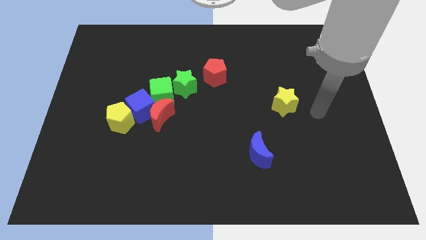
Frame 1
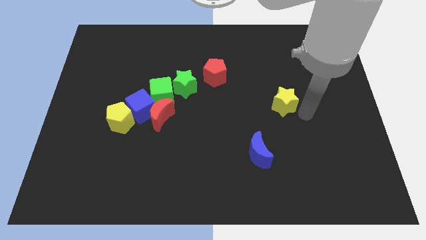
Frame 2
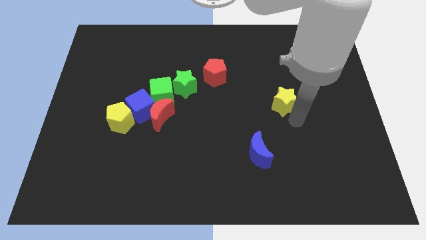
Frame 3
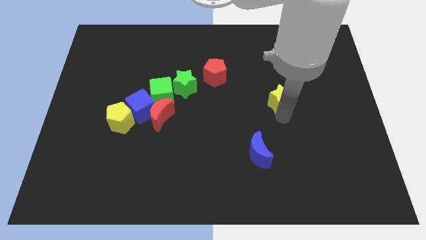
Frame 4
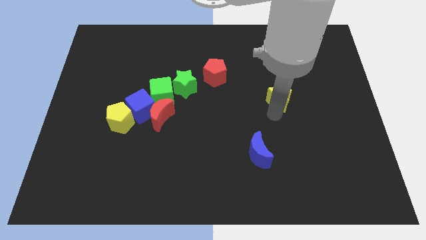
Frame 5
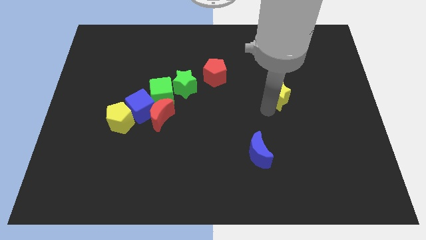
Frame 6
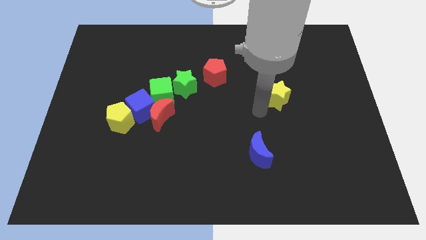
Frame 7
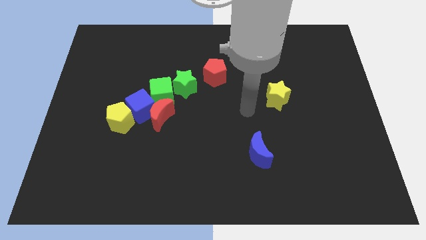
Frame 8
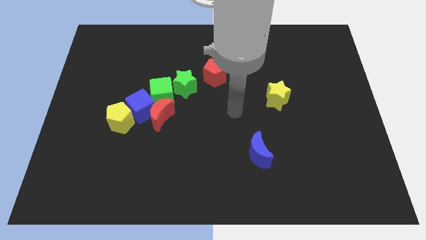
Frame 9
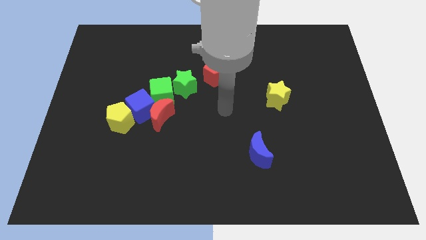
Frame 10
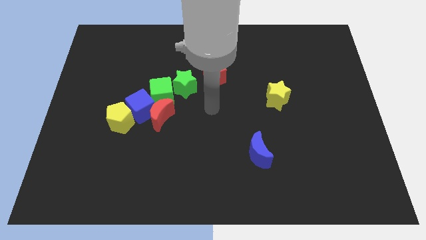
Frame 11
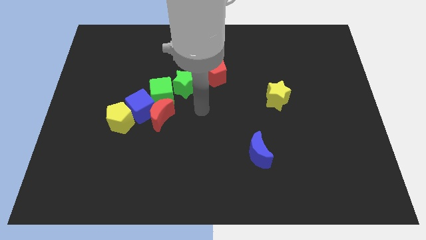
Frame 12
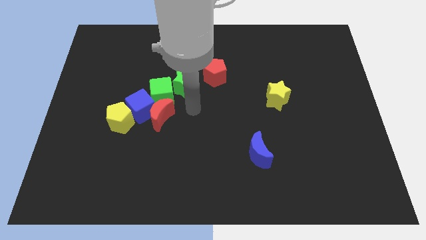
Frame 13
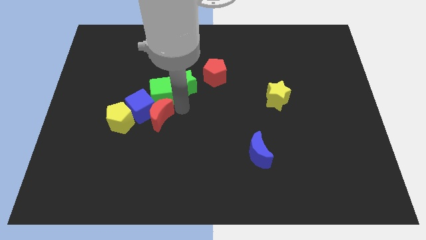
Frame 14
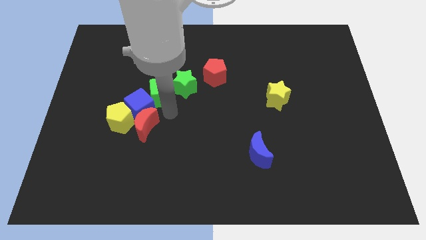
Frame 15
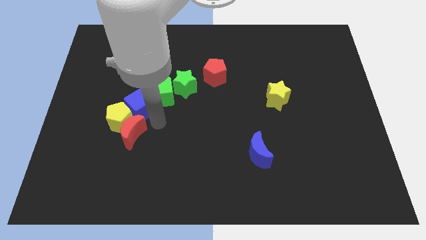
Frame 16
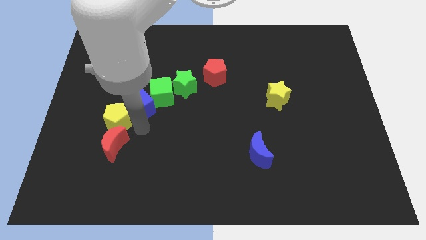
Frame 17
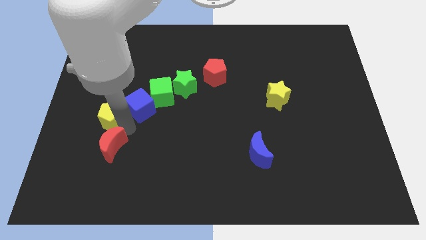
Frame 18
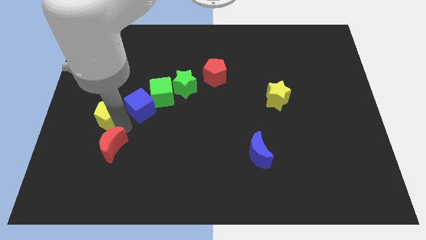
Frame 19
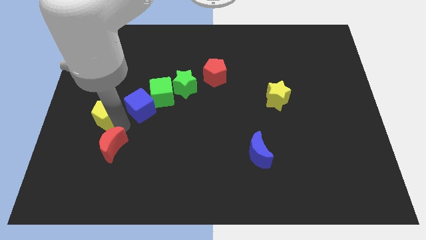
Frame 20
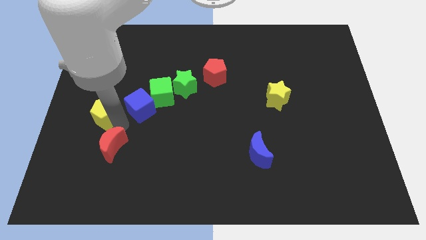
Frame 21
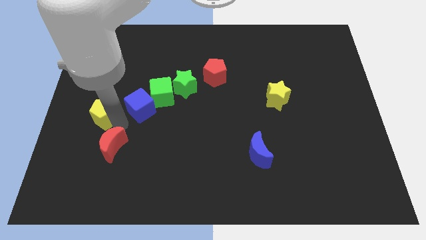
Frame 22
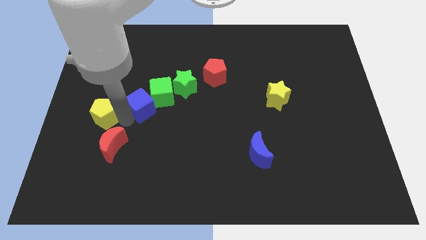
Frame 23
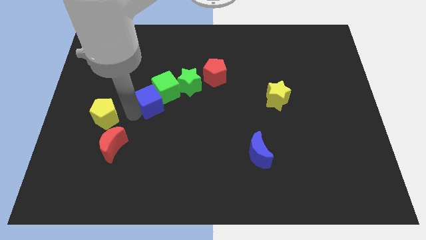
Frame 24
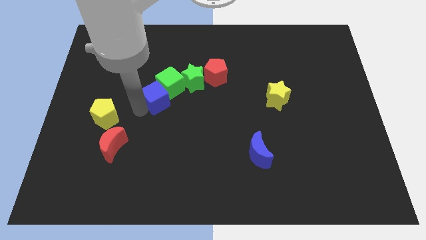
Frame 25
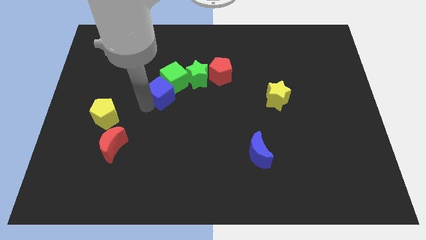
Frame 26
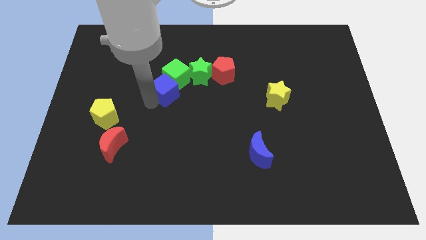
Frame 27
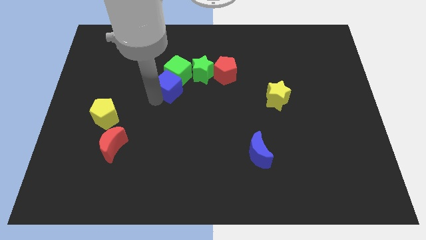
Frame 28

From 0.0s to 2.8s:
move the blue cube away from the red moon, yellow pentagon, and green cube

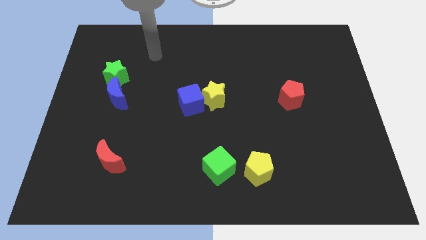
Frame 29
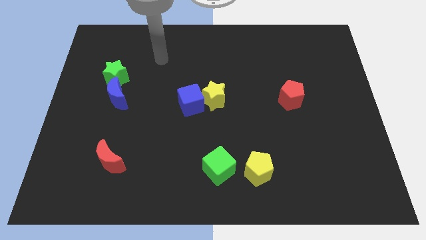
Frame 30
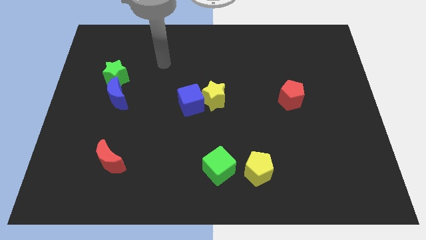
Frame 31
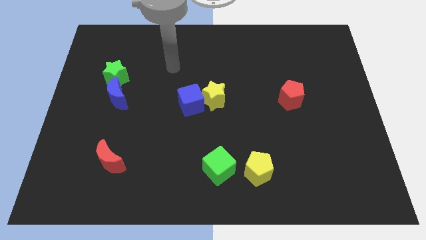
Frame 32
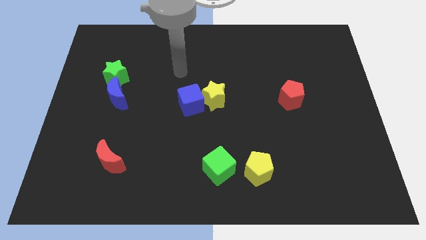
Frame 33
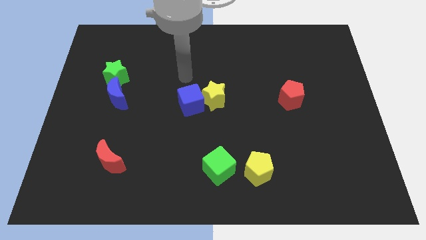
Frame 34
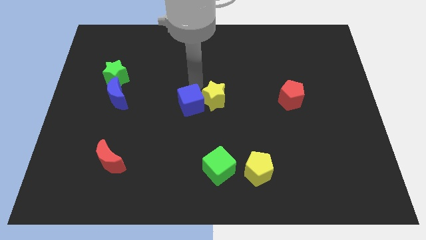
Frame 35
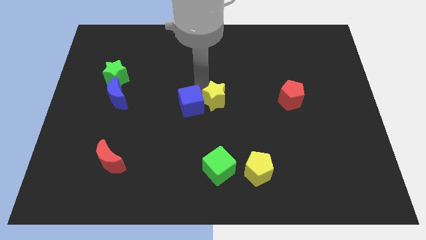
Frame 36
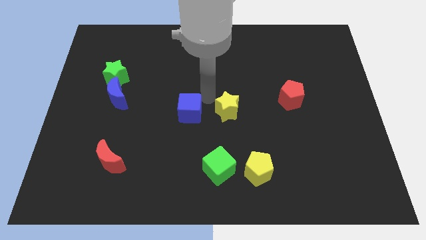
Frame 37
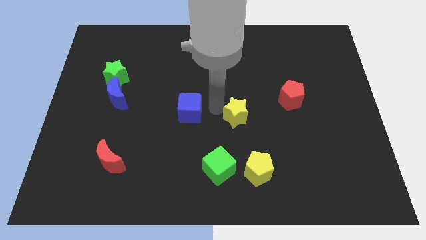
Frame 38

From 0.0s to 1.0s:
separate the blue cube from the yellow star

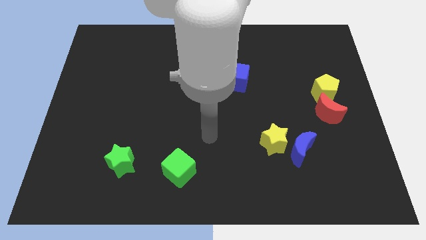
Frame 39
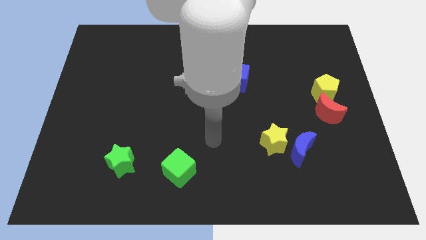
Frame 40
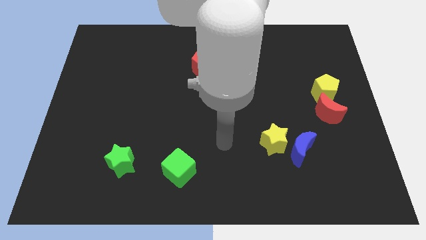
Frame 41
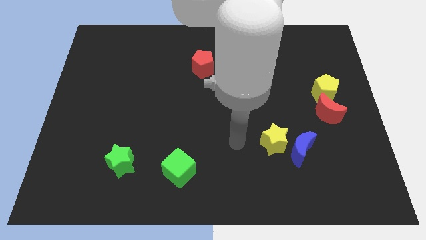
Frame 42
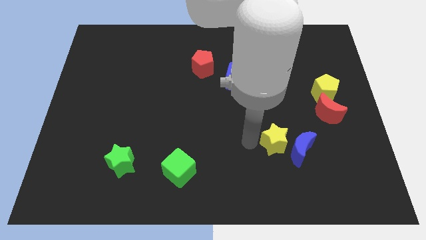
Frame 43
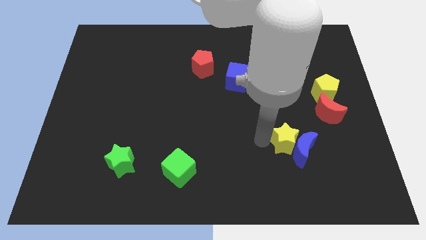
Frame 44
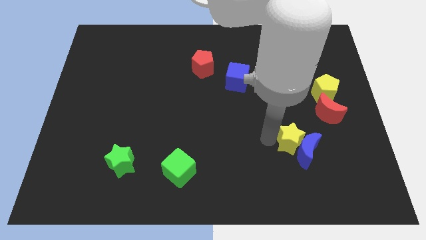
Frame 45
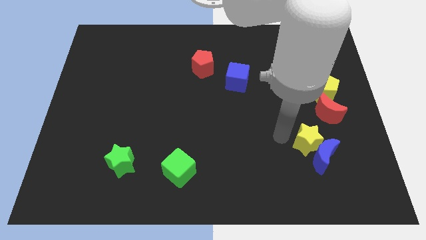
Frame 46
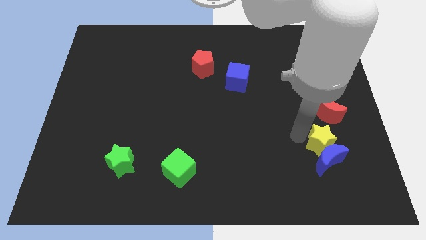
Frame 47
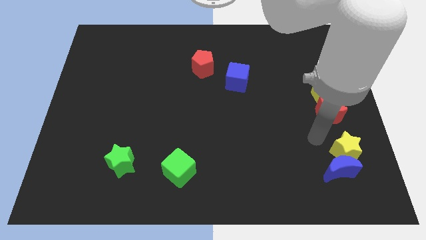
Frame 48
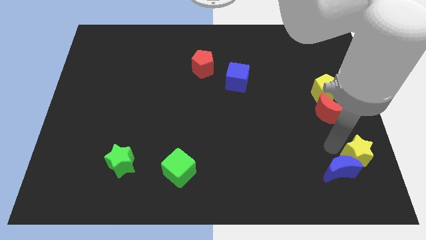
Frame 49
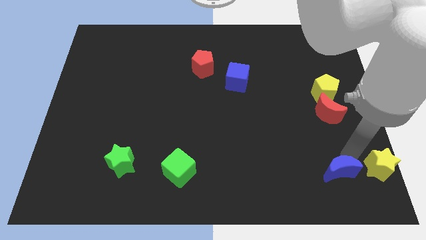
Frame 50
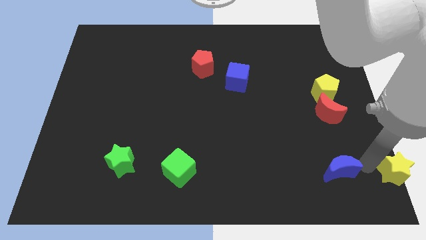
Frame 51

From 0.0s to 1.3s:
separate the blue moon from the yellow star

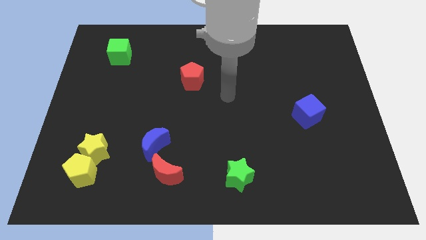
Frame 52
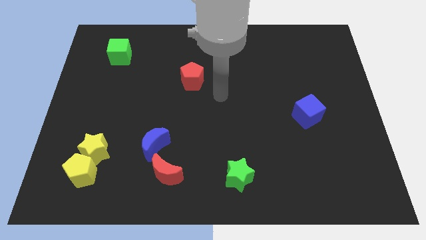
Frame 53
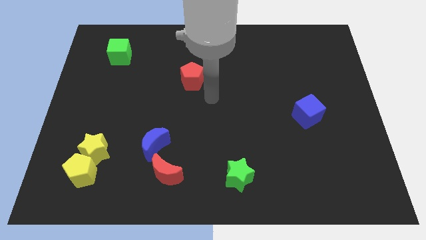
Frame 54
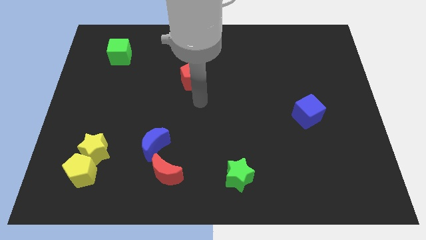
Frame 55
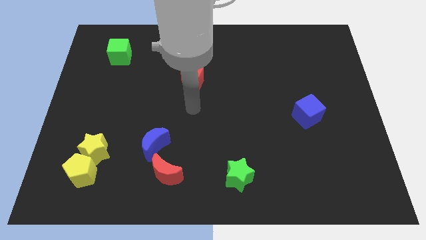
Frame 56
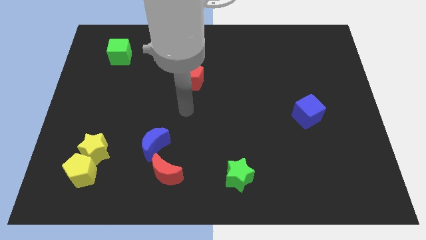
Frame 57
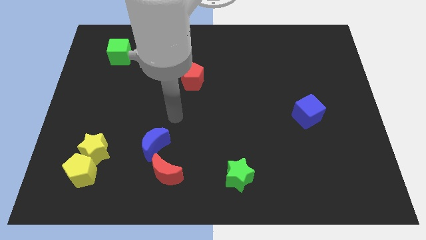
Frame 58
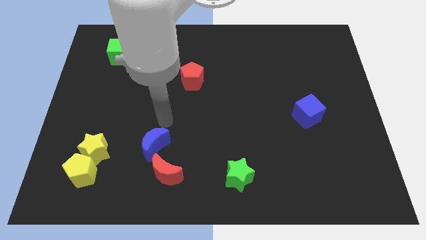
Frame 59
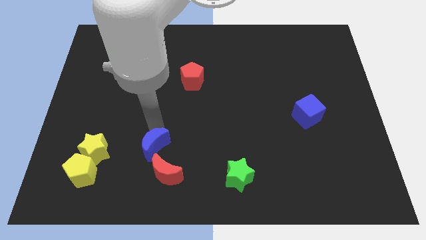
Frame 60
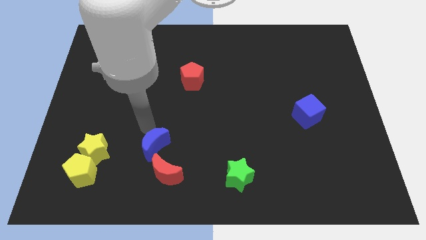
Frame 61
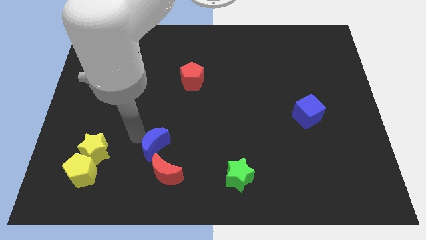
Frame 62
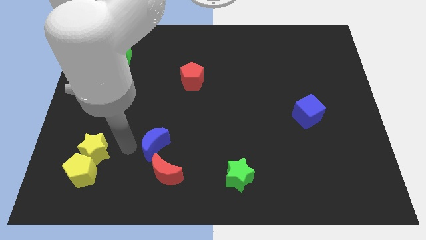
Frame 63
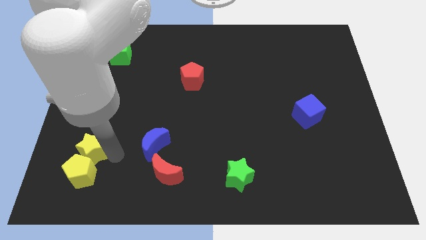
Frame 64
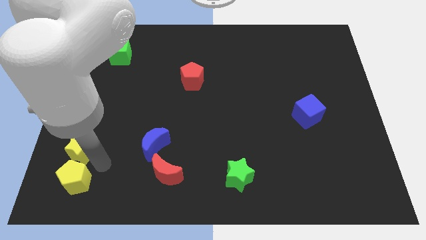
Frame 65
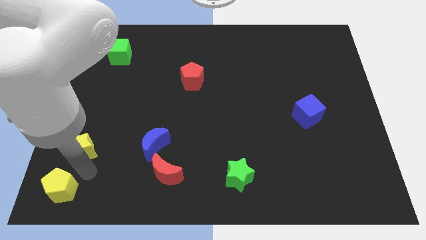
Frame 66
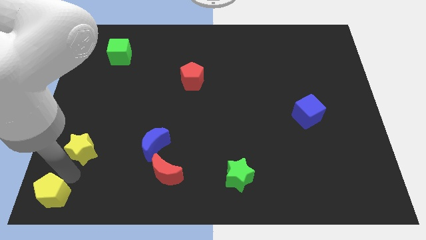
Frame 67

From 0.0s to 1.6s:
separate the yellow star from the yellow pentagon

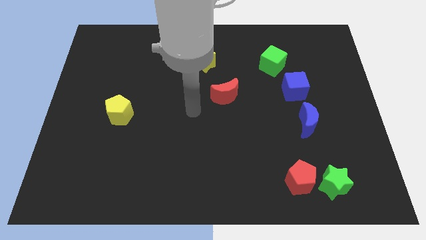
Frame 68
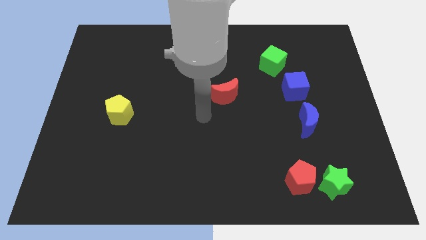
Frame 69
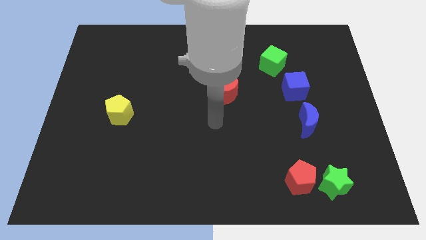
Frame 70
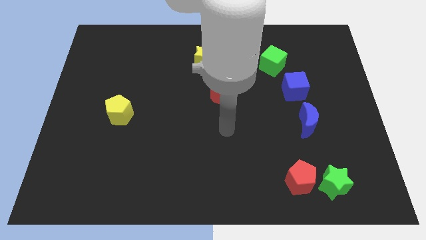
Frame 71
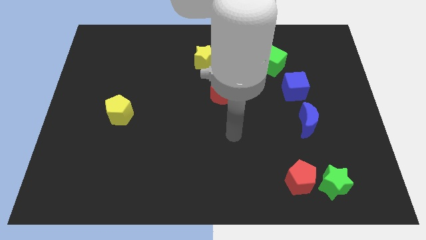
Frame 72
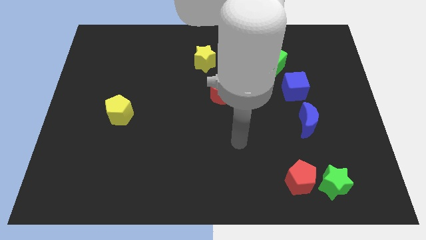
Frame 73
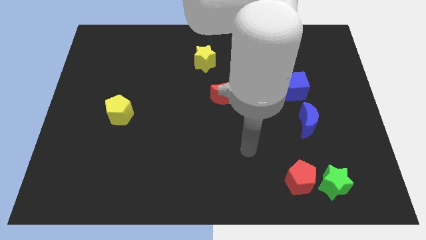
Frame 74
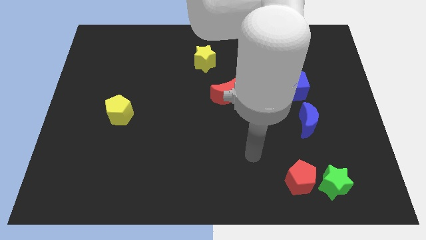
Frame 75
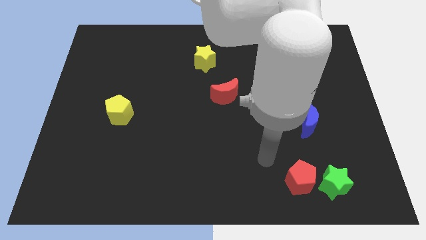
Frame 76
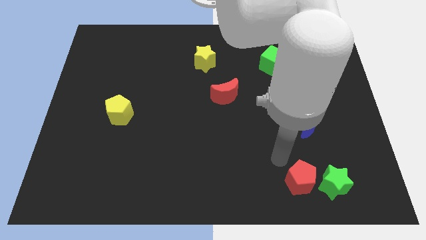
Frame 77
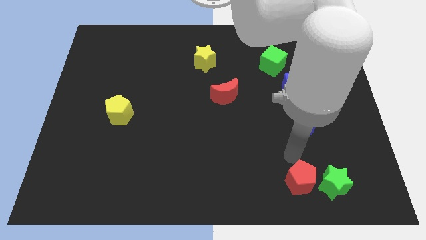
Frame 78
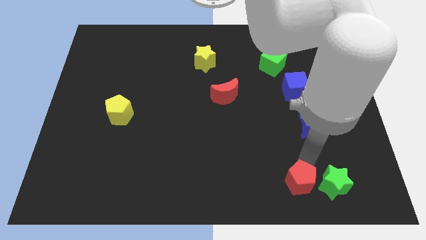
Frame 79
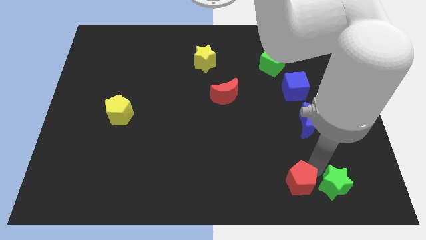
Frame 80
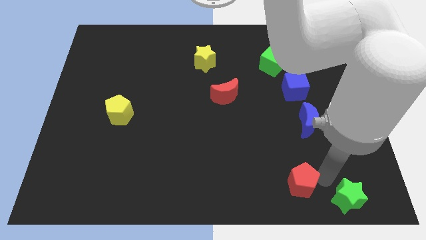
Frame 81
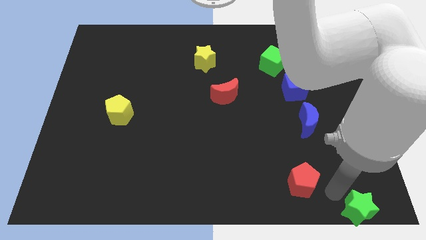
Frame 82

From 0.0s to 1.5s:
separate the red pentagon from the green star

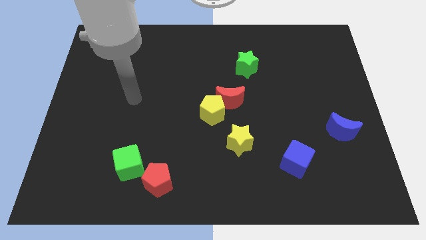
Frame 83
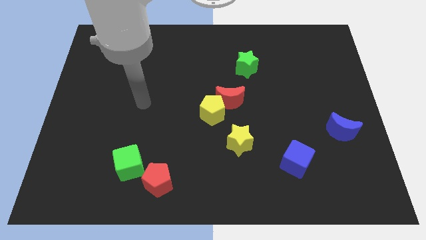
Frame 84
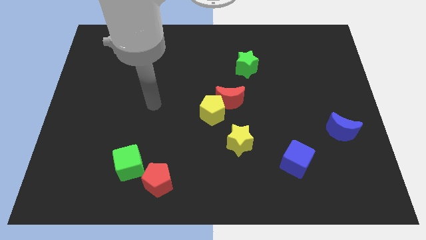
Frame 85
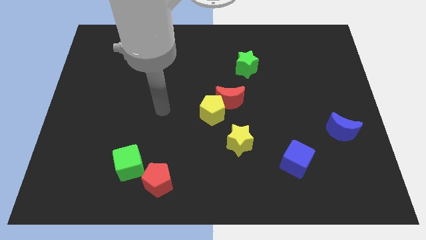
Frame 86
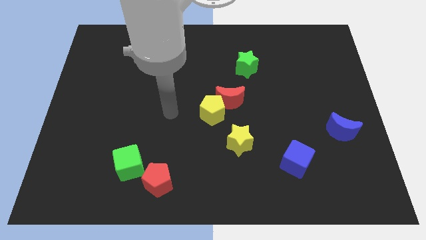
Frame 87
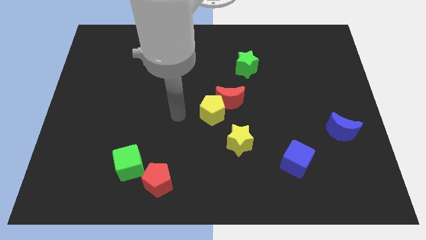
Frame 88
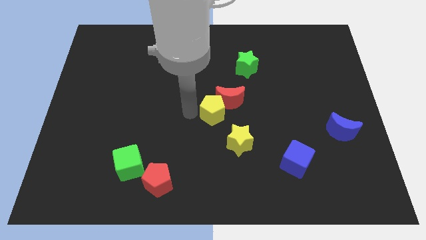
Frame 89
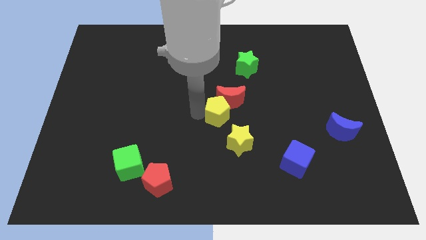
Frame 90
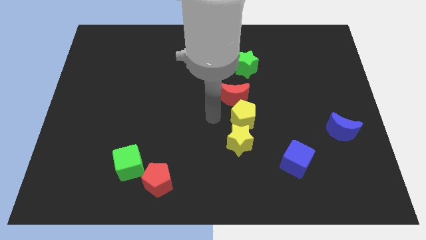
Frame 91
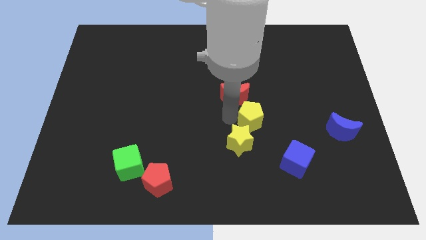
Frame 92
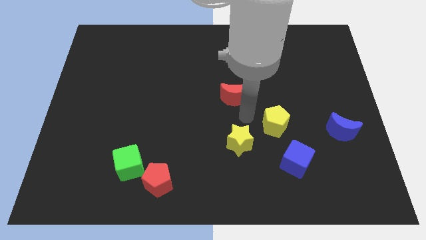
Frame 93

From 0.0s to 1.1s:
move the red moon away from the yellow pentagon
